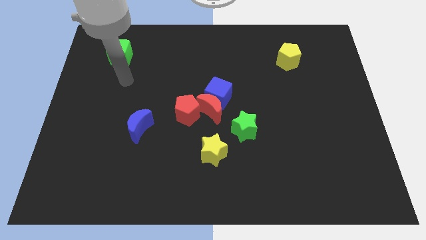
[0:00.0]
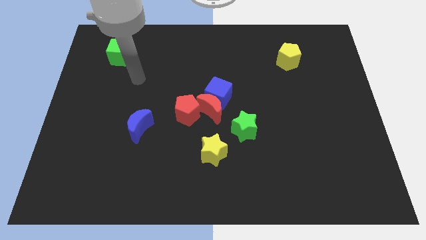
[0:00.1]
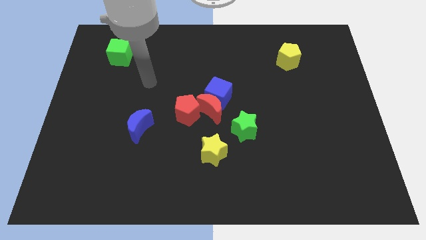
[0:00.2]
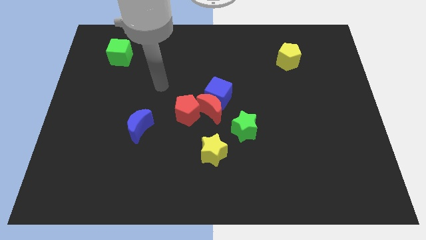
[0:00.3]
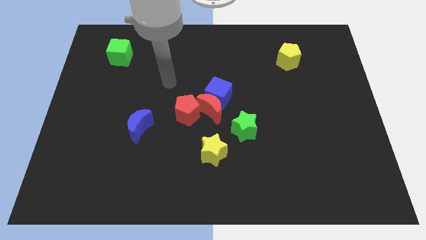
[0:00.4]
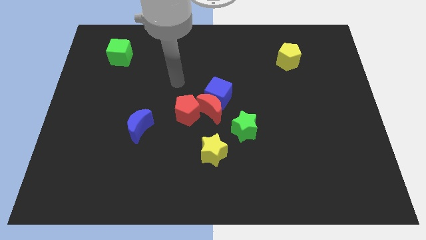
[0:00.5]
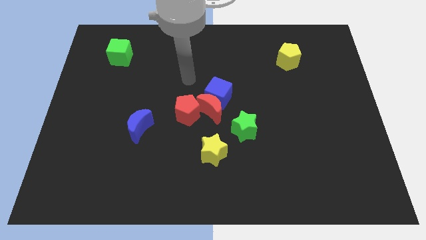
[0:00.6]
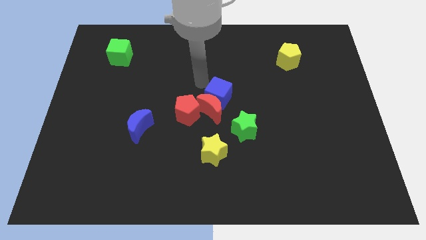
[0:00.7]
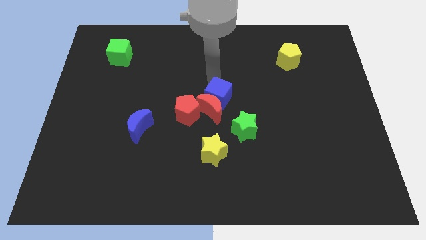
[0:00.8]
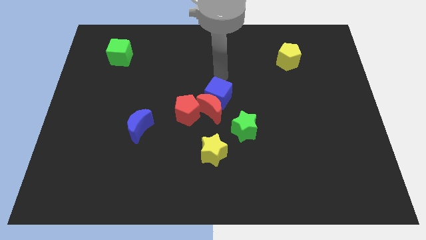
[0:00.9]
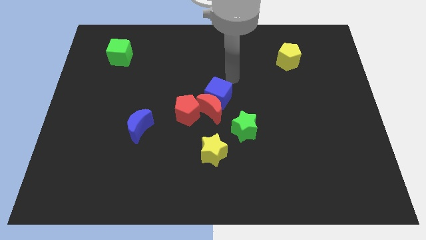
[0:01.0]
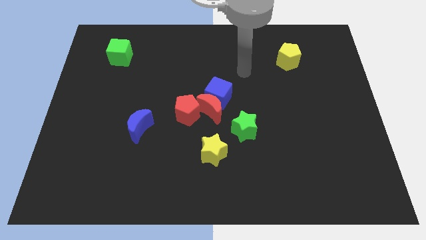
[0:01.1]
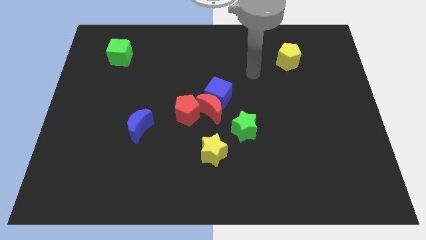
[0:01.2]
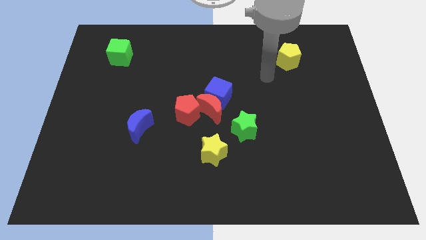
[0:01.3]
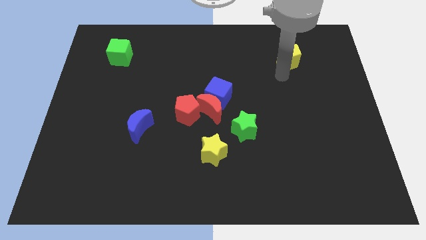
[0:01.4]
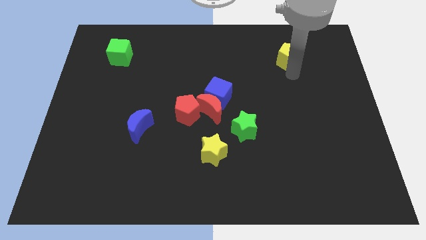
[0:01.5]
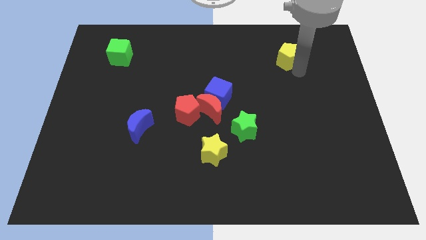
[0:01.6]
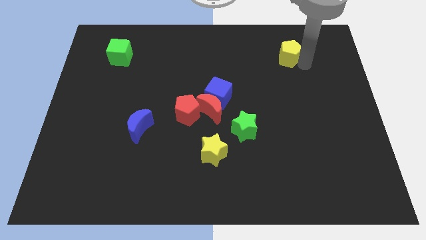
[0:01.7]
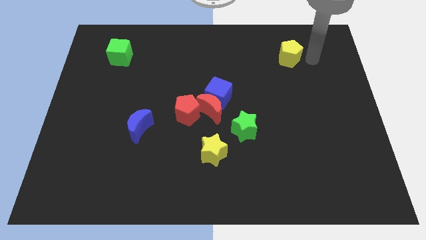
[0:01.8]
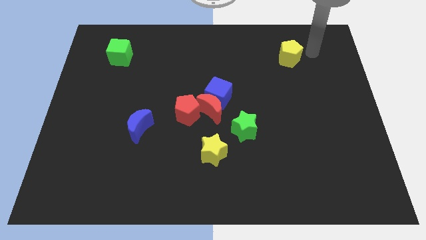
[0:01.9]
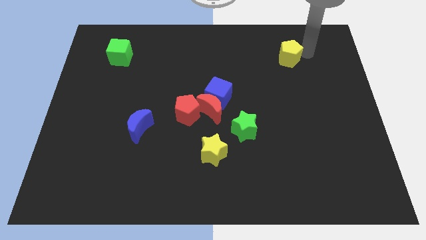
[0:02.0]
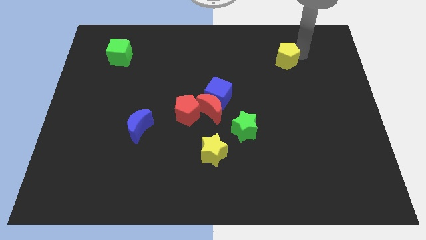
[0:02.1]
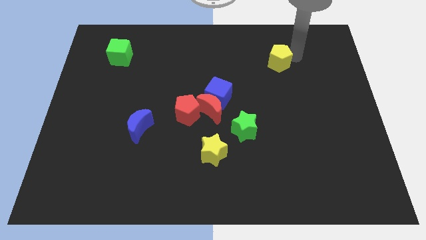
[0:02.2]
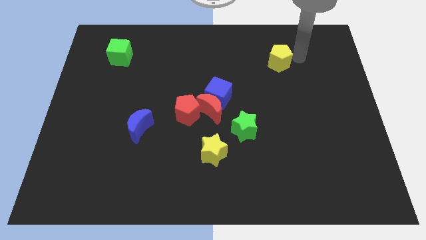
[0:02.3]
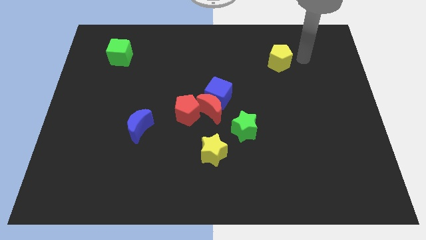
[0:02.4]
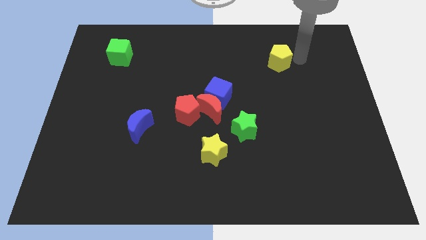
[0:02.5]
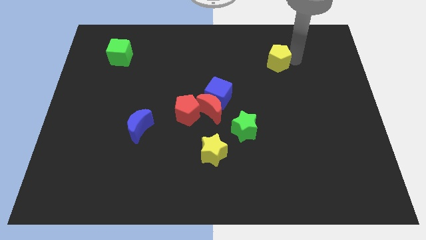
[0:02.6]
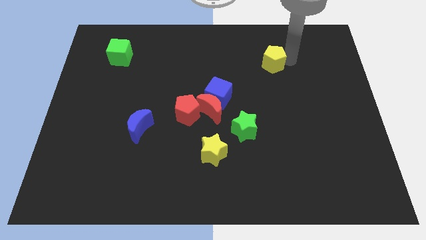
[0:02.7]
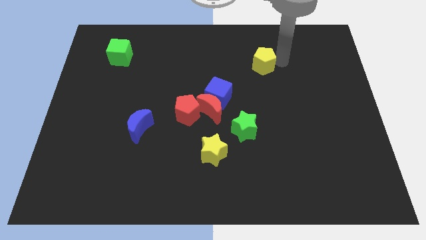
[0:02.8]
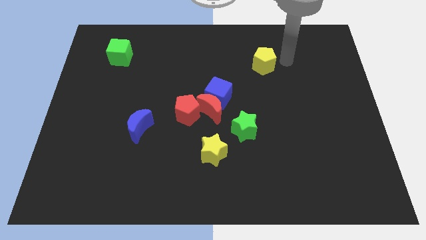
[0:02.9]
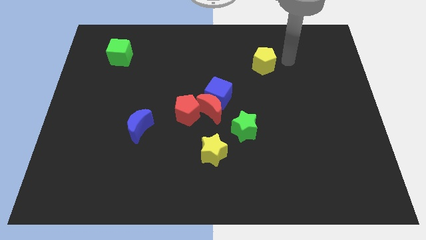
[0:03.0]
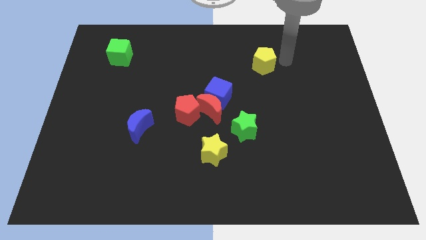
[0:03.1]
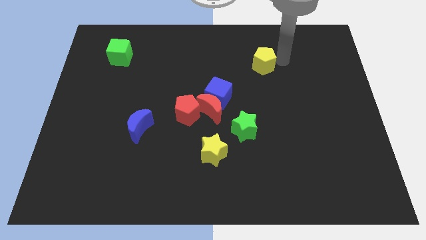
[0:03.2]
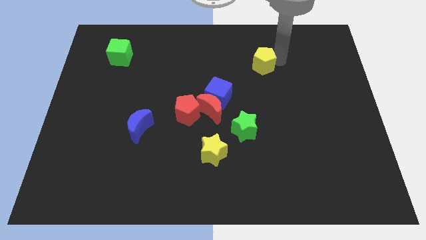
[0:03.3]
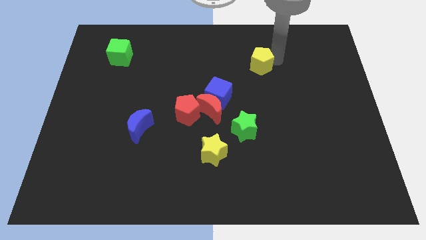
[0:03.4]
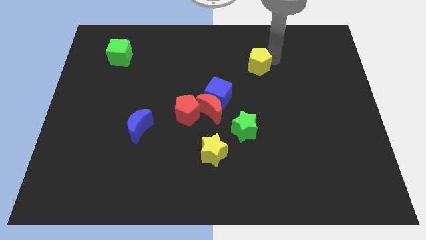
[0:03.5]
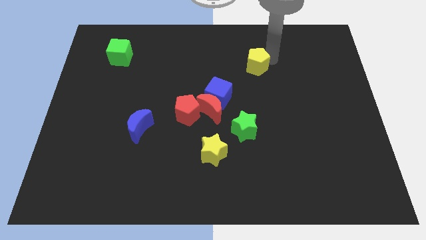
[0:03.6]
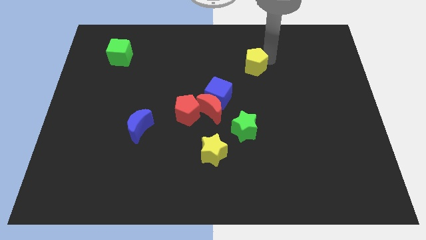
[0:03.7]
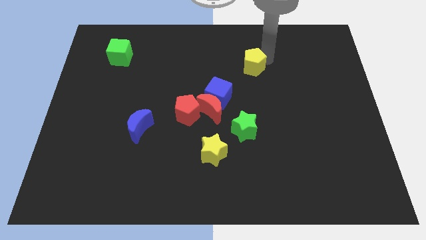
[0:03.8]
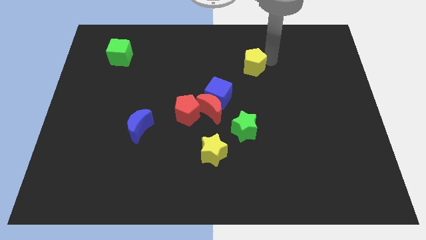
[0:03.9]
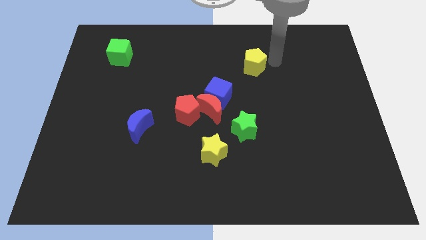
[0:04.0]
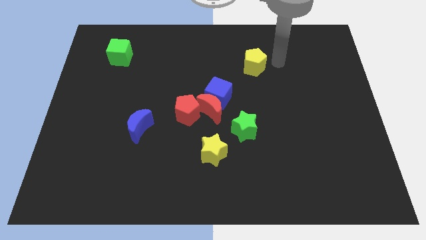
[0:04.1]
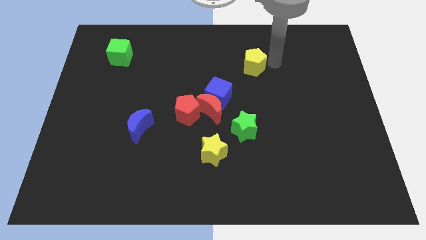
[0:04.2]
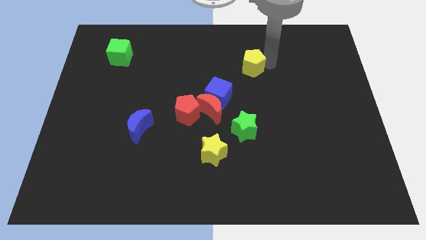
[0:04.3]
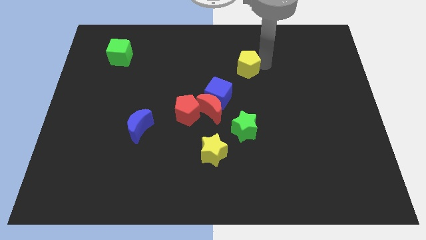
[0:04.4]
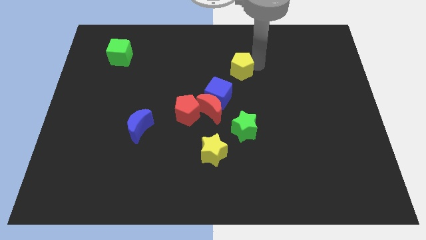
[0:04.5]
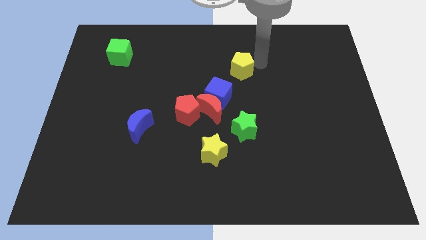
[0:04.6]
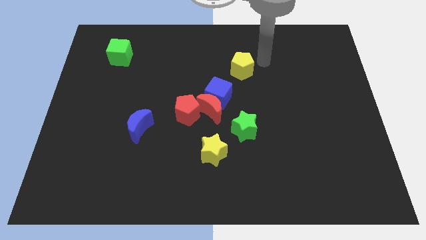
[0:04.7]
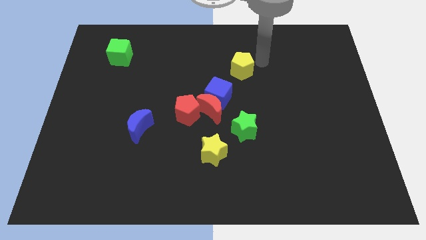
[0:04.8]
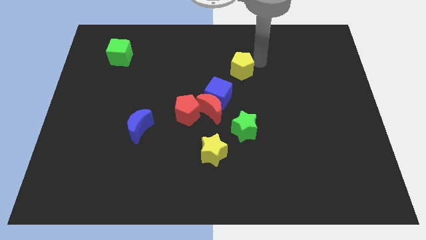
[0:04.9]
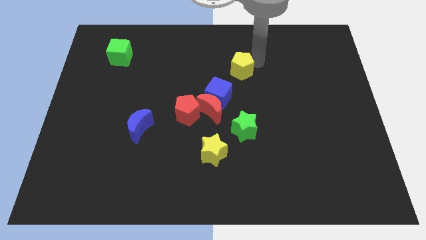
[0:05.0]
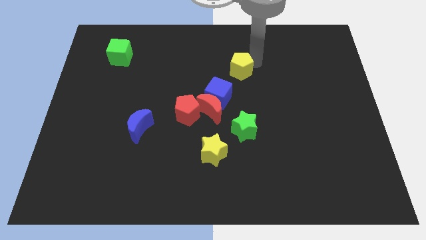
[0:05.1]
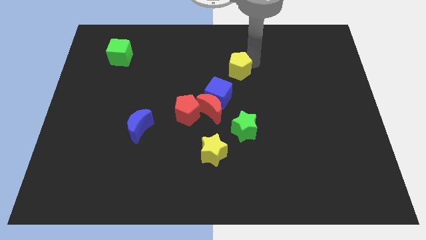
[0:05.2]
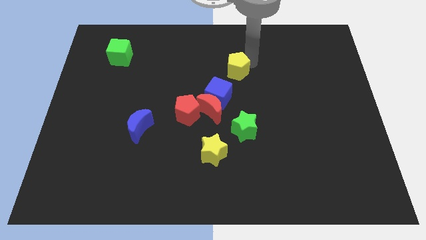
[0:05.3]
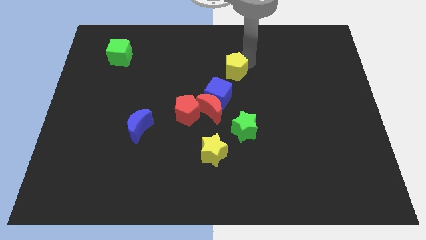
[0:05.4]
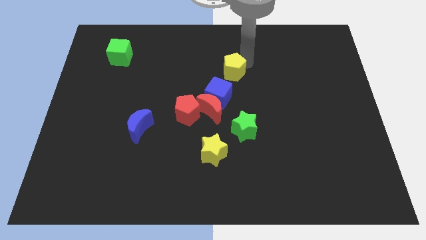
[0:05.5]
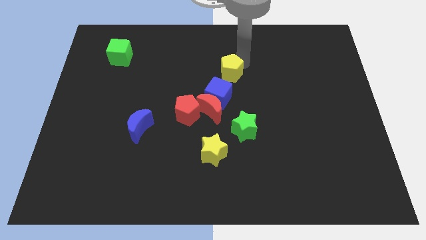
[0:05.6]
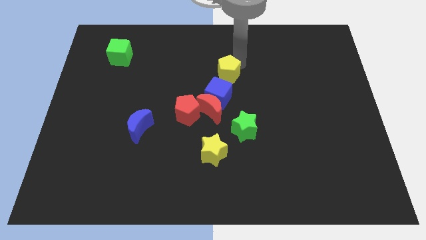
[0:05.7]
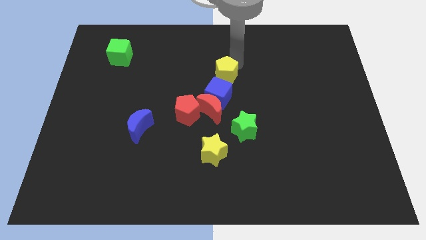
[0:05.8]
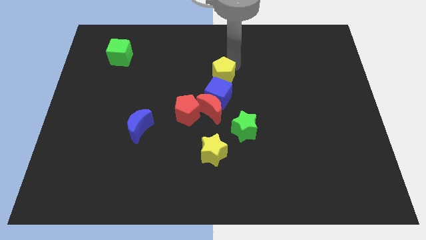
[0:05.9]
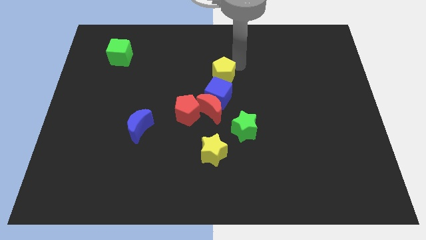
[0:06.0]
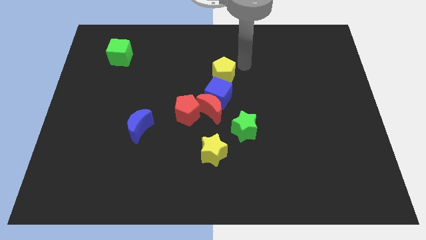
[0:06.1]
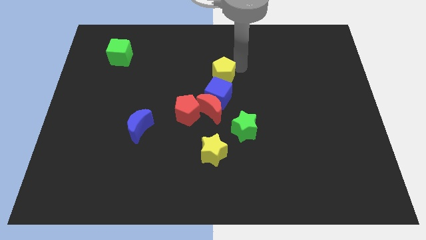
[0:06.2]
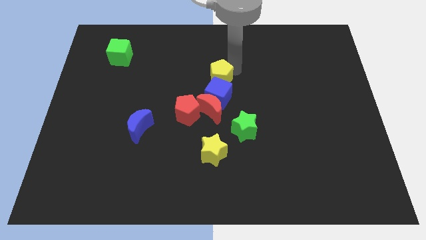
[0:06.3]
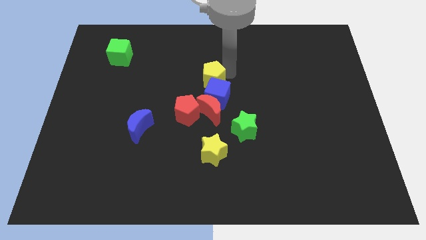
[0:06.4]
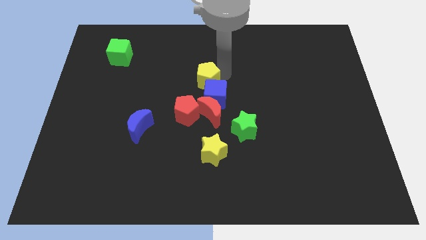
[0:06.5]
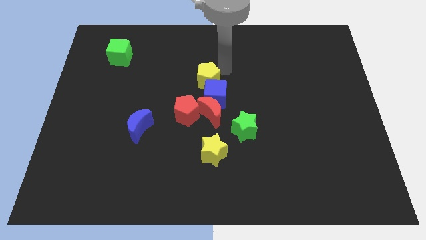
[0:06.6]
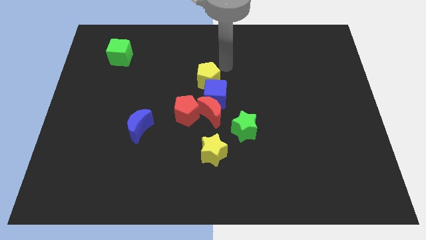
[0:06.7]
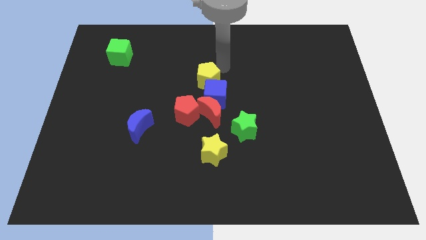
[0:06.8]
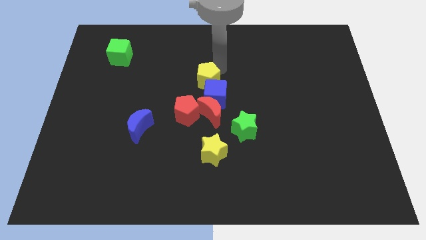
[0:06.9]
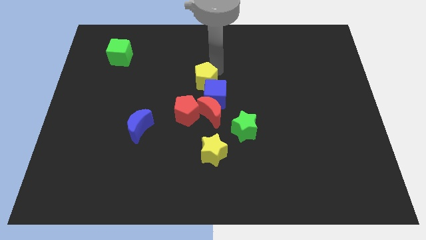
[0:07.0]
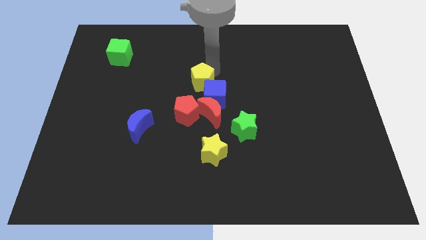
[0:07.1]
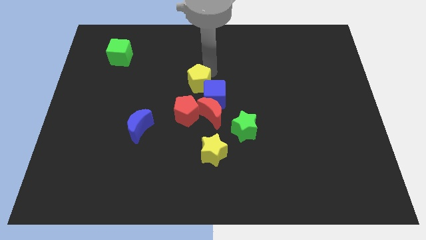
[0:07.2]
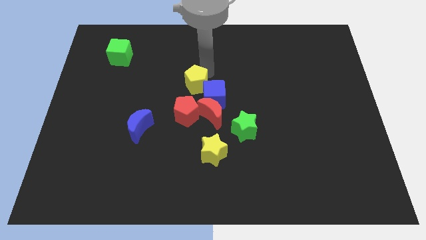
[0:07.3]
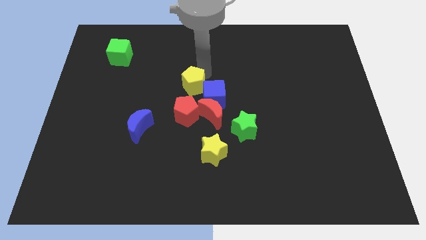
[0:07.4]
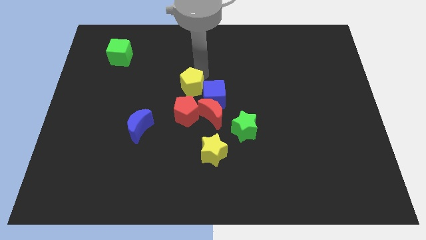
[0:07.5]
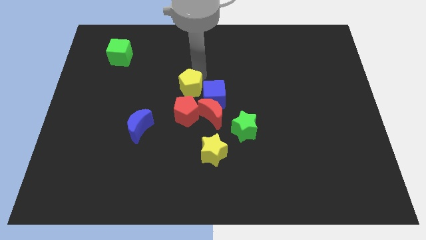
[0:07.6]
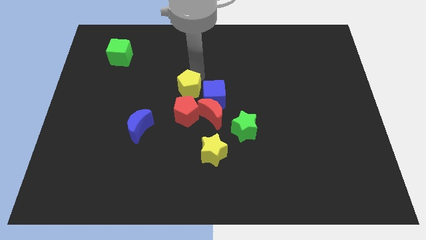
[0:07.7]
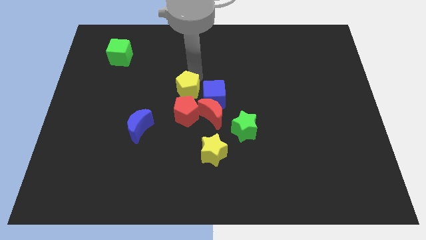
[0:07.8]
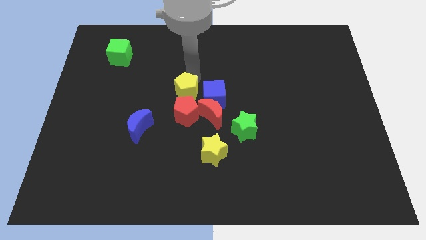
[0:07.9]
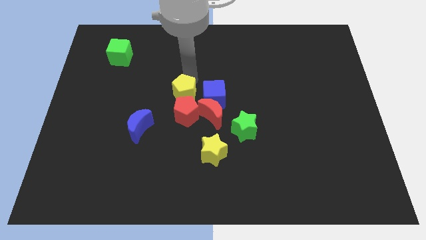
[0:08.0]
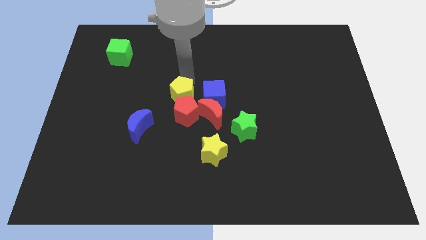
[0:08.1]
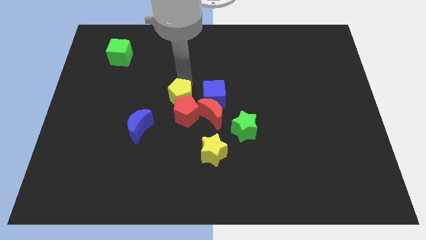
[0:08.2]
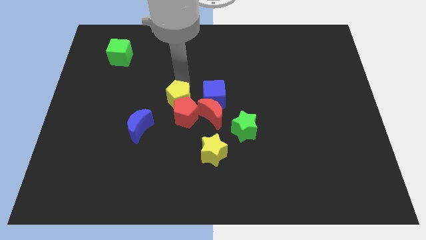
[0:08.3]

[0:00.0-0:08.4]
move the yellow pentagon to the left side of the red moon
